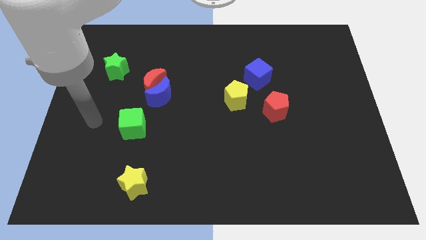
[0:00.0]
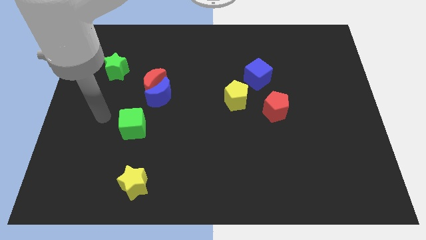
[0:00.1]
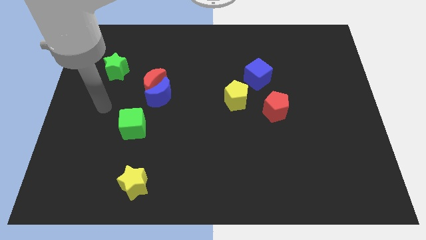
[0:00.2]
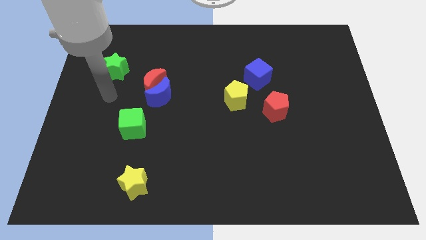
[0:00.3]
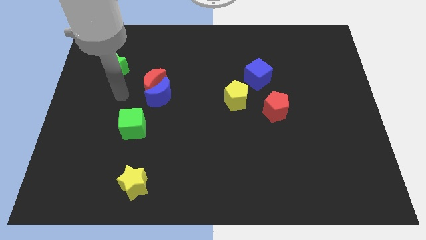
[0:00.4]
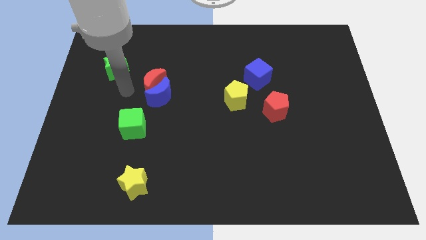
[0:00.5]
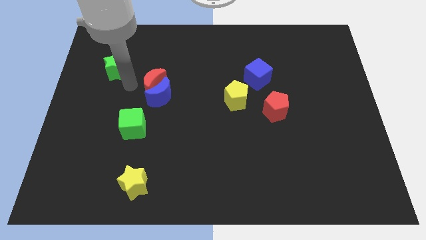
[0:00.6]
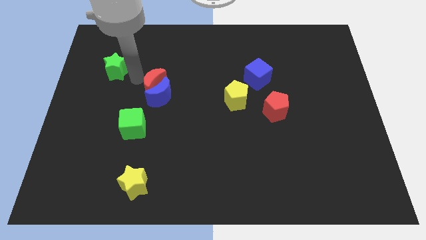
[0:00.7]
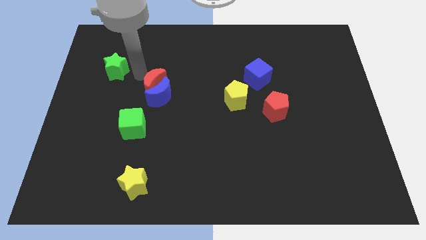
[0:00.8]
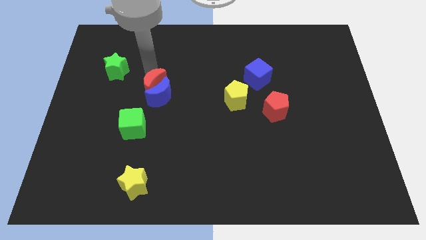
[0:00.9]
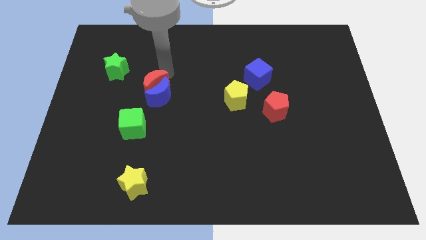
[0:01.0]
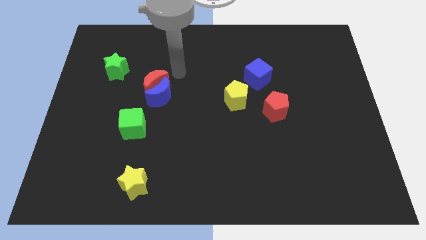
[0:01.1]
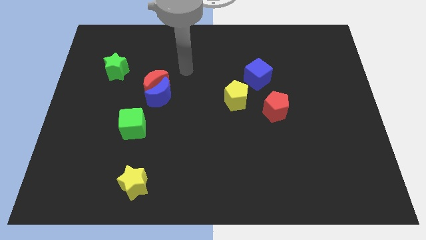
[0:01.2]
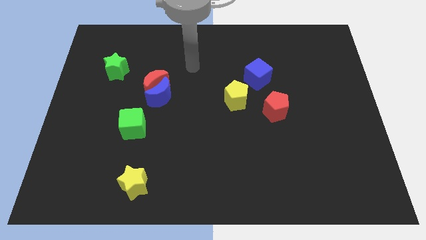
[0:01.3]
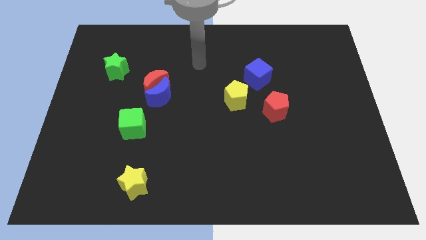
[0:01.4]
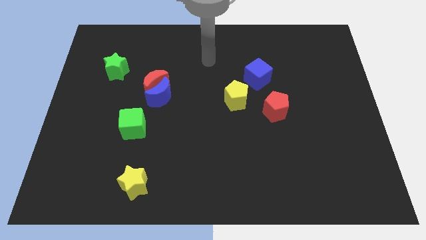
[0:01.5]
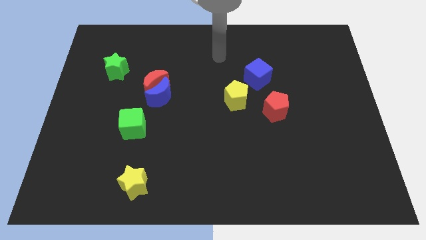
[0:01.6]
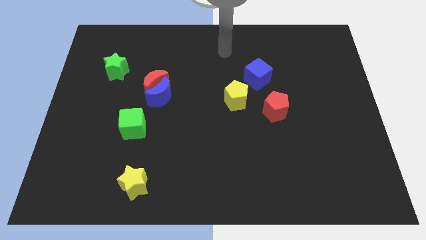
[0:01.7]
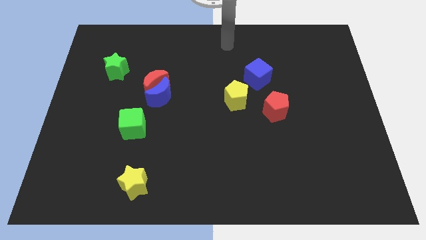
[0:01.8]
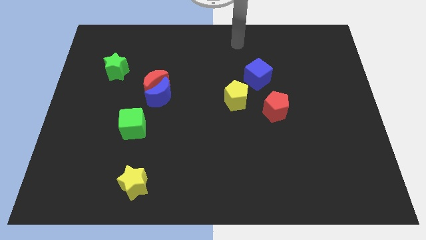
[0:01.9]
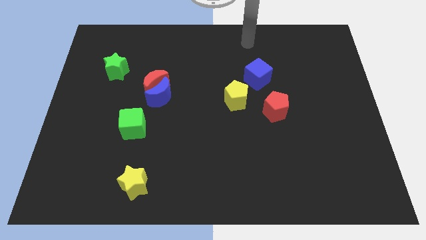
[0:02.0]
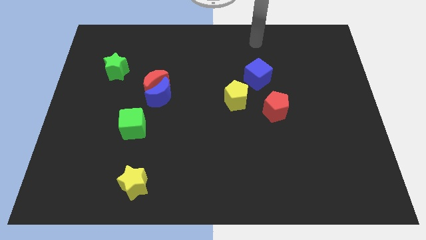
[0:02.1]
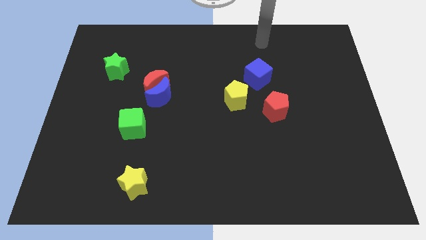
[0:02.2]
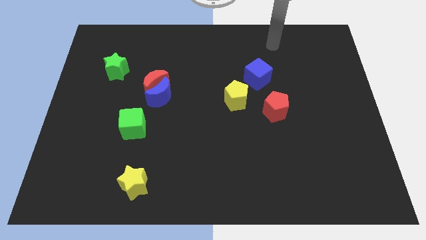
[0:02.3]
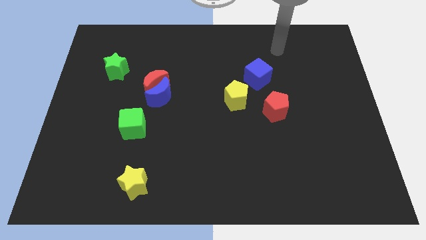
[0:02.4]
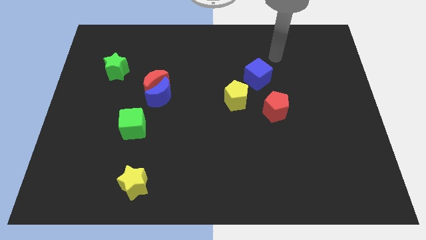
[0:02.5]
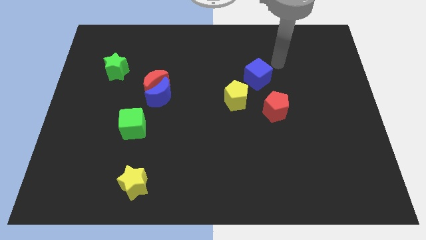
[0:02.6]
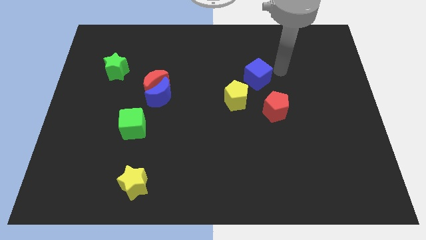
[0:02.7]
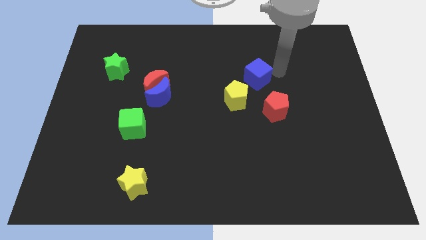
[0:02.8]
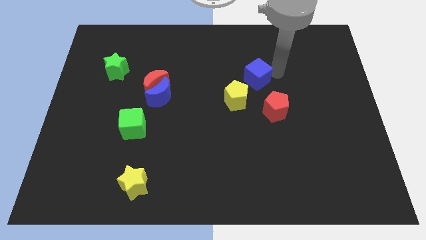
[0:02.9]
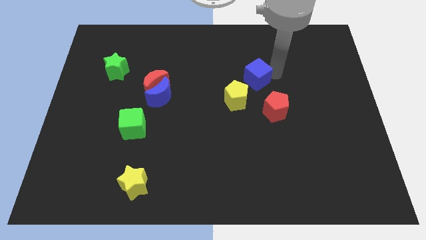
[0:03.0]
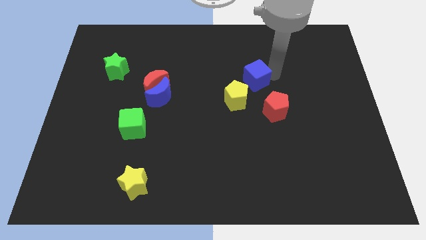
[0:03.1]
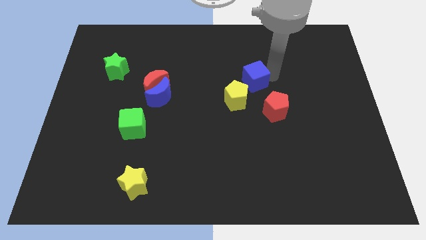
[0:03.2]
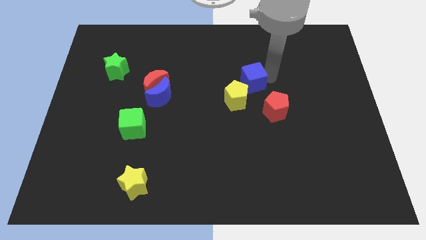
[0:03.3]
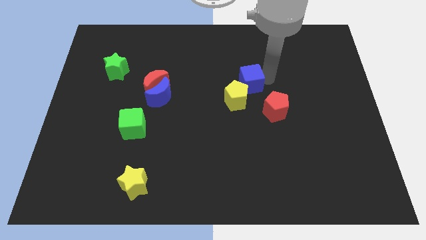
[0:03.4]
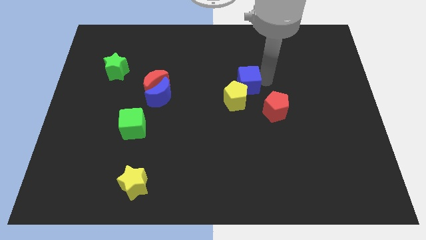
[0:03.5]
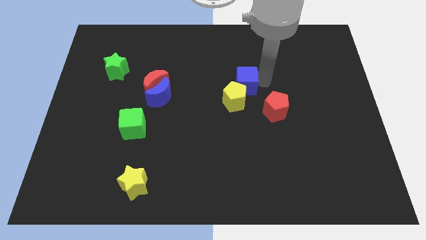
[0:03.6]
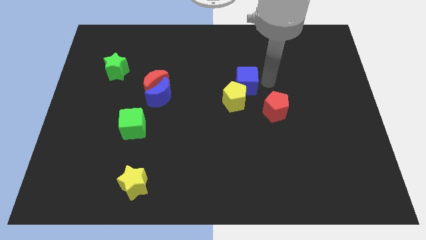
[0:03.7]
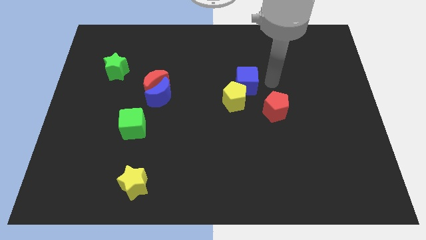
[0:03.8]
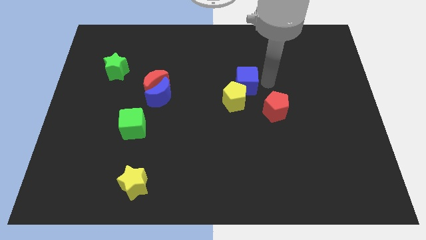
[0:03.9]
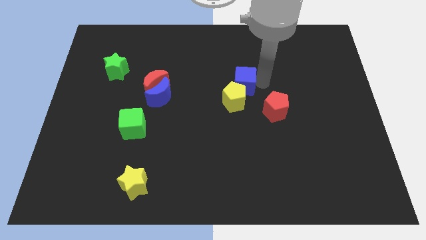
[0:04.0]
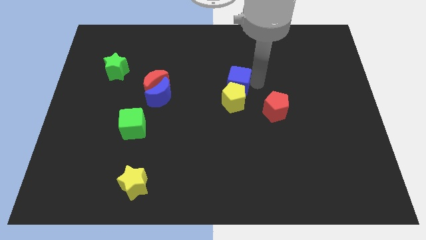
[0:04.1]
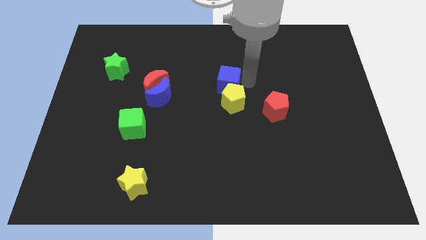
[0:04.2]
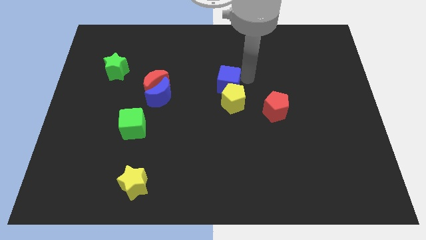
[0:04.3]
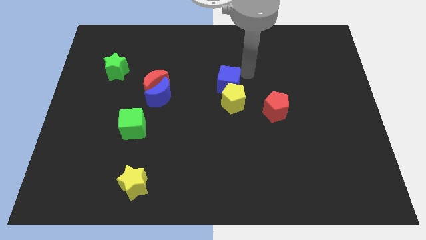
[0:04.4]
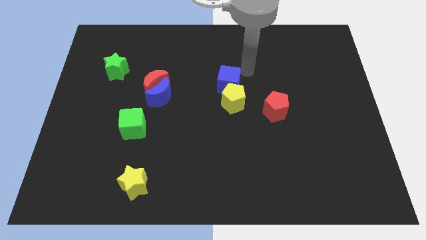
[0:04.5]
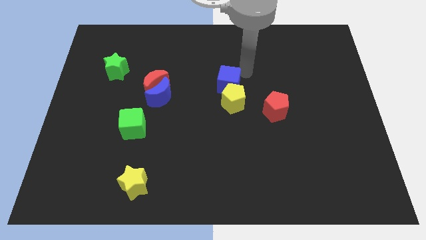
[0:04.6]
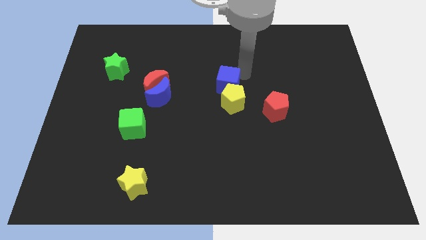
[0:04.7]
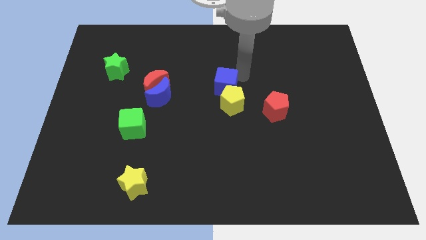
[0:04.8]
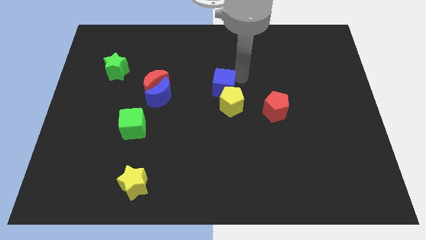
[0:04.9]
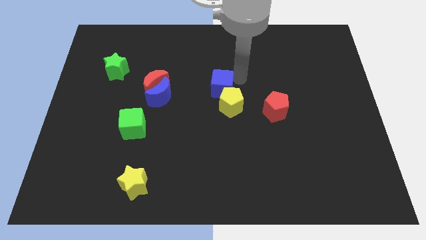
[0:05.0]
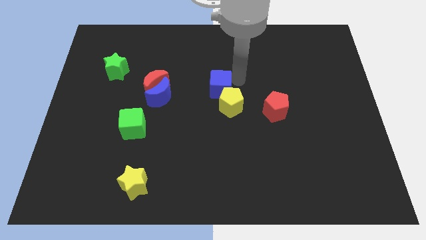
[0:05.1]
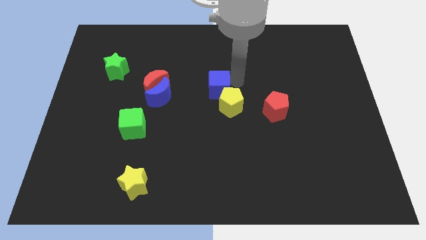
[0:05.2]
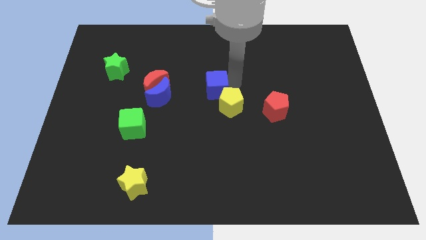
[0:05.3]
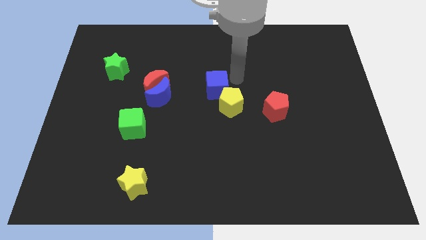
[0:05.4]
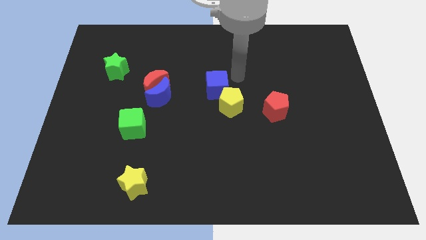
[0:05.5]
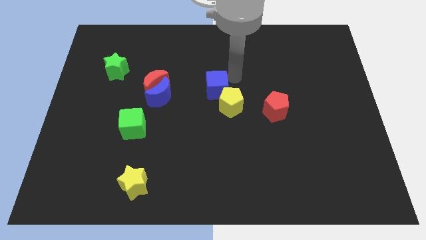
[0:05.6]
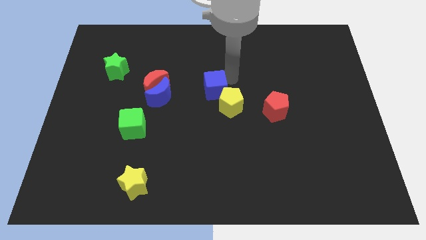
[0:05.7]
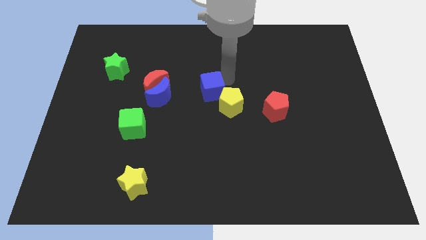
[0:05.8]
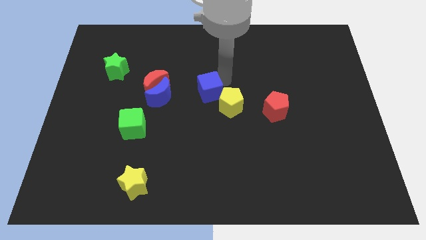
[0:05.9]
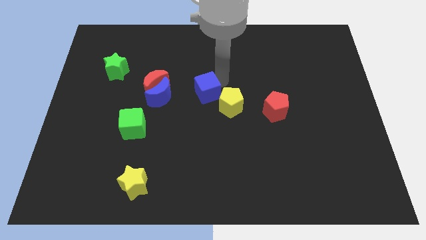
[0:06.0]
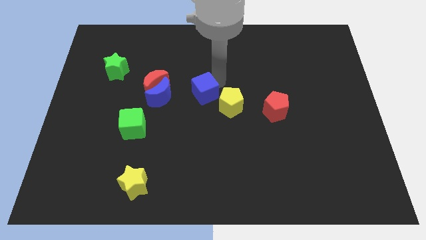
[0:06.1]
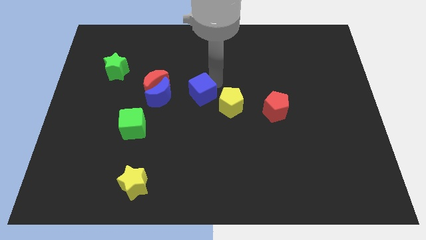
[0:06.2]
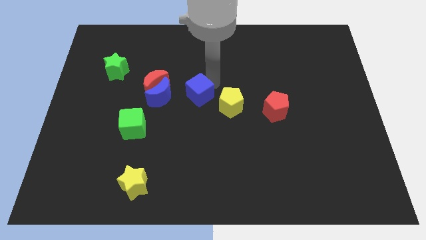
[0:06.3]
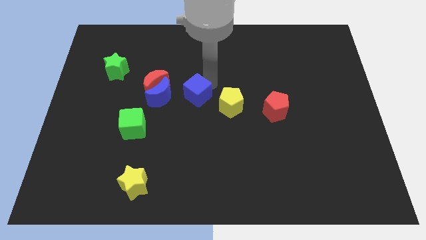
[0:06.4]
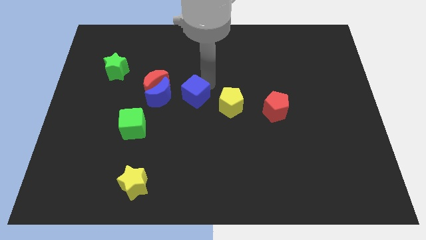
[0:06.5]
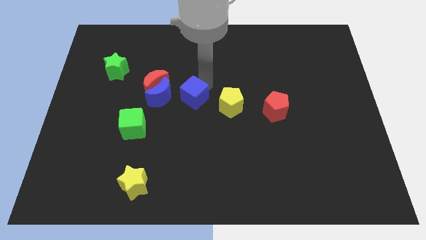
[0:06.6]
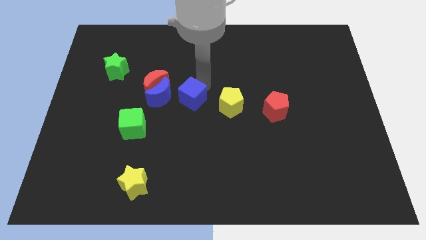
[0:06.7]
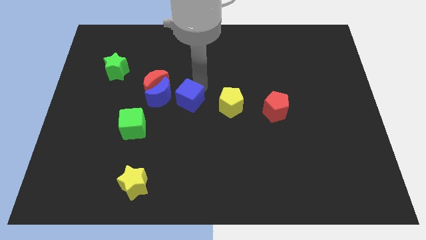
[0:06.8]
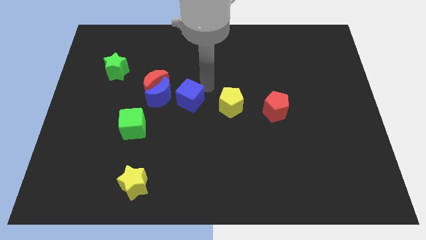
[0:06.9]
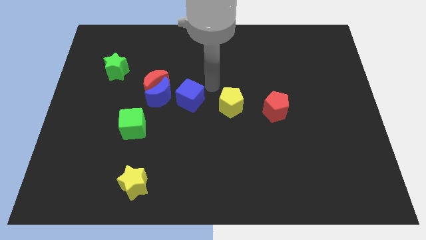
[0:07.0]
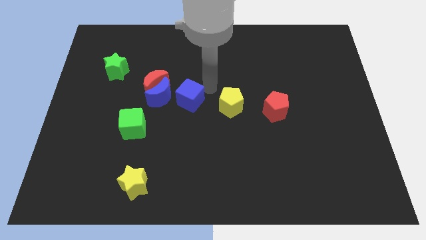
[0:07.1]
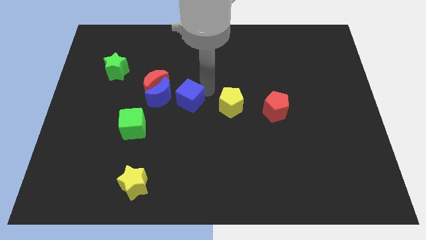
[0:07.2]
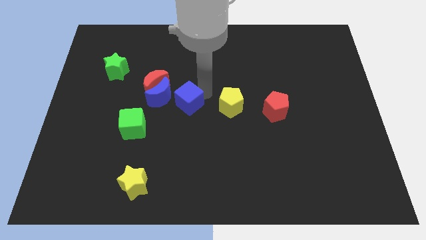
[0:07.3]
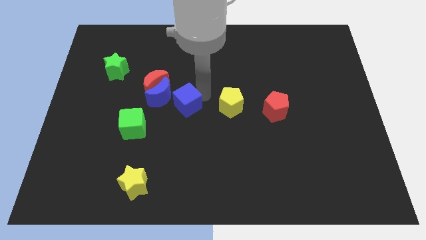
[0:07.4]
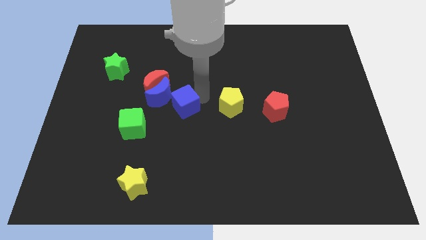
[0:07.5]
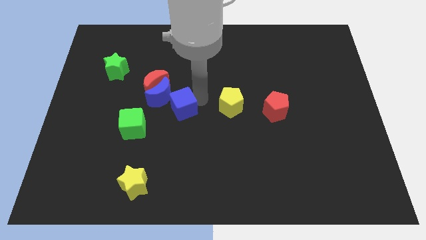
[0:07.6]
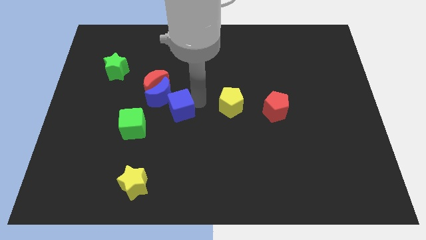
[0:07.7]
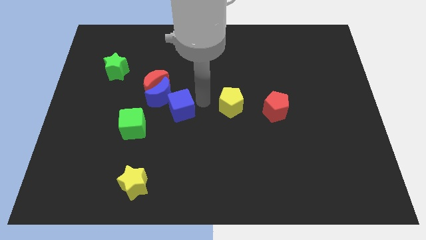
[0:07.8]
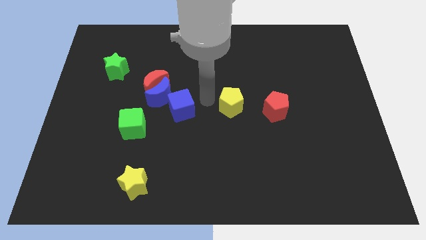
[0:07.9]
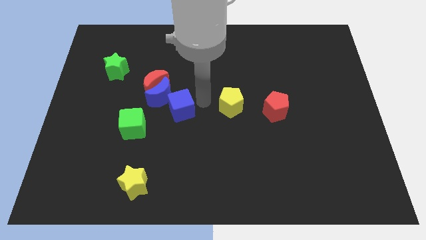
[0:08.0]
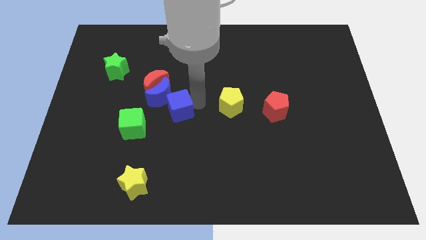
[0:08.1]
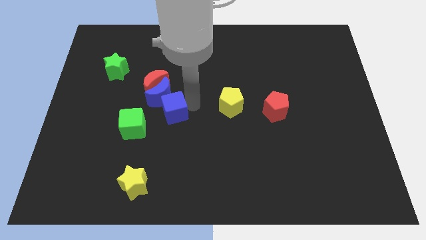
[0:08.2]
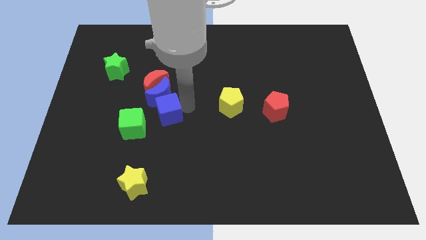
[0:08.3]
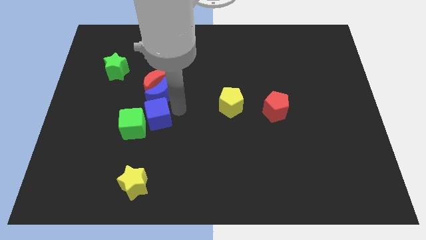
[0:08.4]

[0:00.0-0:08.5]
push the blue cube towards the green cube
